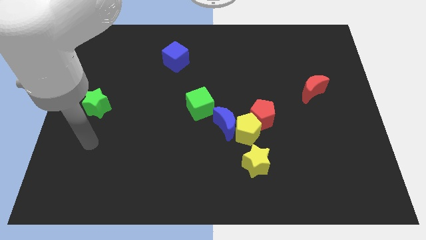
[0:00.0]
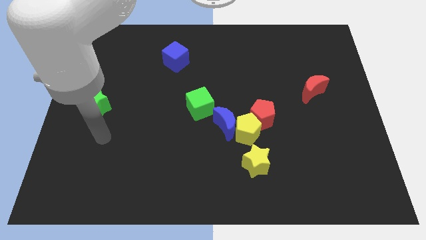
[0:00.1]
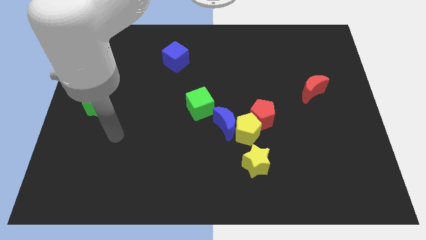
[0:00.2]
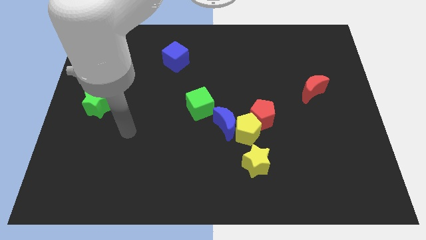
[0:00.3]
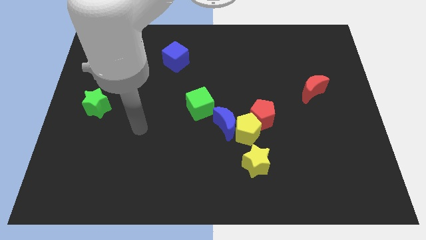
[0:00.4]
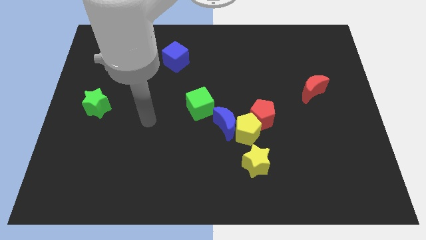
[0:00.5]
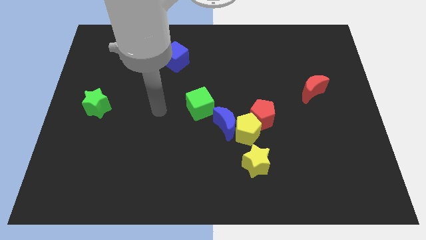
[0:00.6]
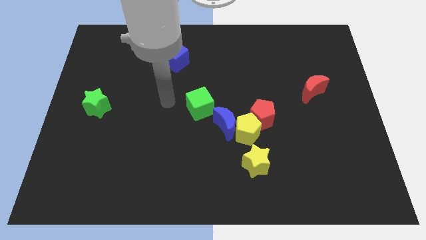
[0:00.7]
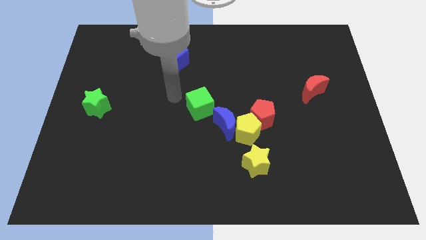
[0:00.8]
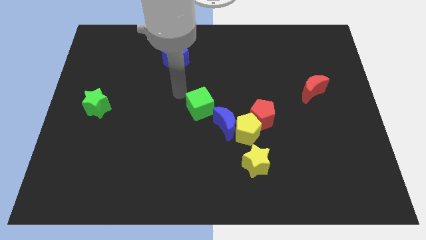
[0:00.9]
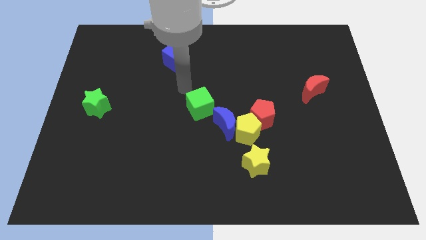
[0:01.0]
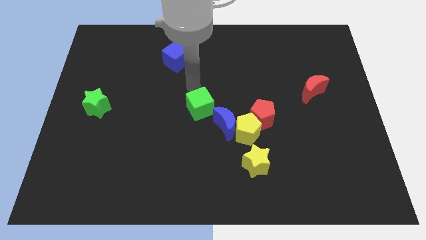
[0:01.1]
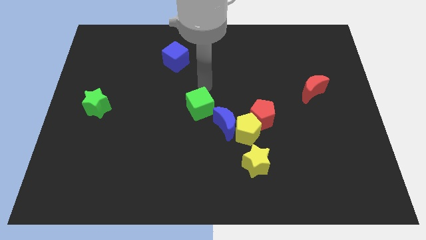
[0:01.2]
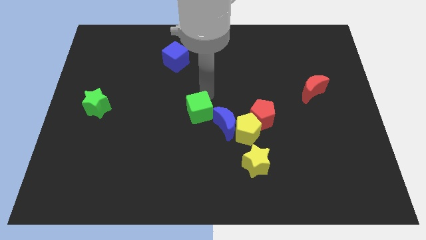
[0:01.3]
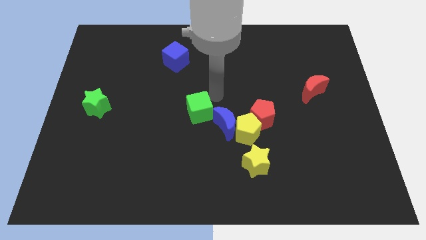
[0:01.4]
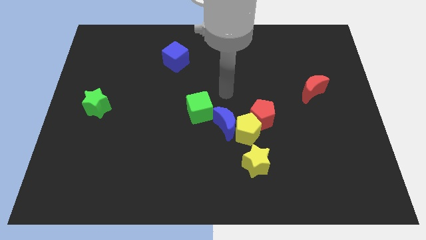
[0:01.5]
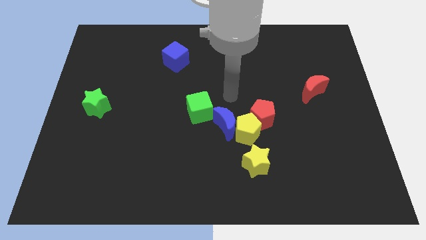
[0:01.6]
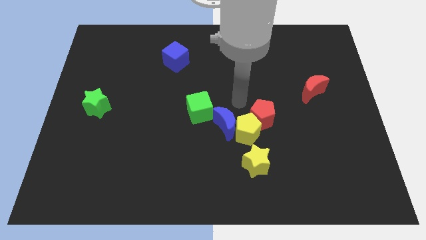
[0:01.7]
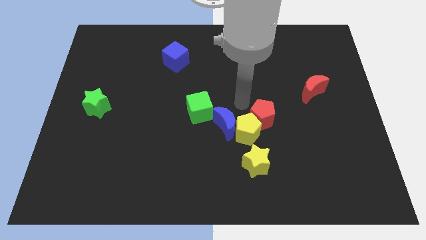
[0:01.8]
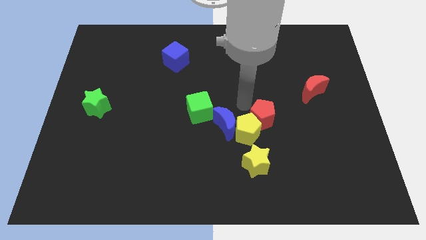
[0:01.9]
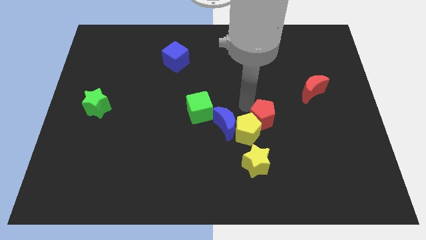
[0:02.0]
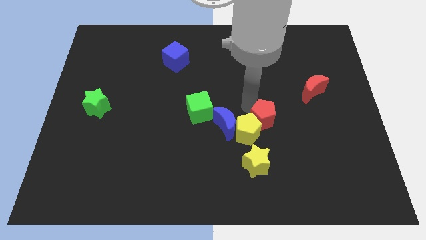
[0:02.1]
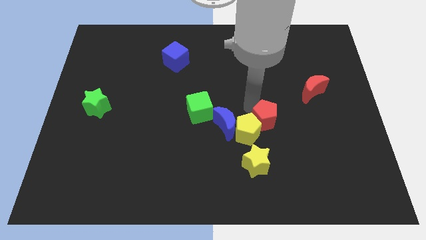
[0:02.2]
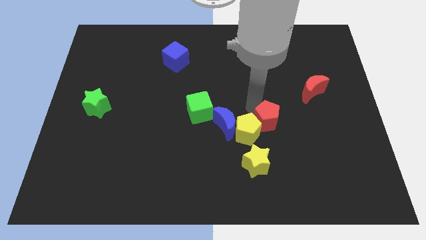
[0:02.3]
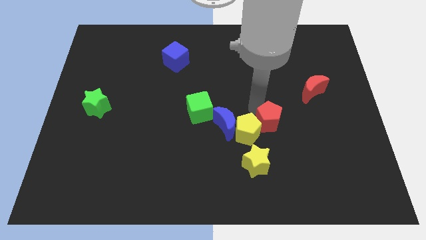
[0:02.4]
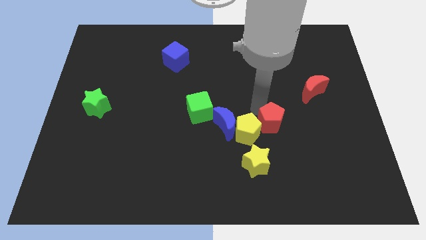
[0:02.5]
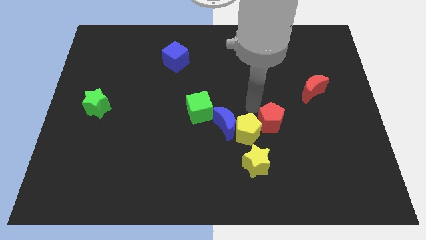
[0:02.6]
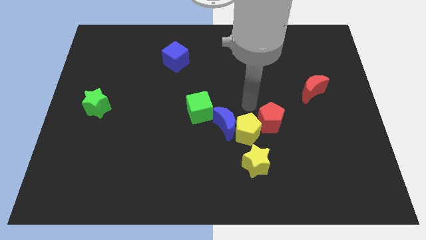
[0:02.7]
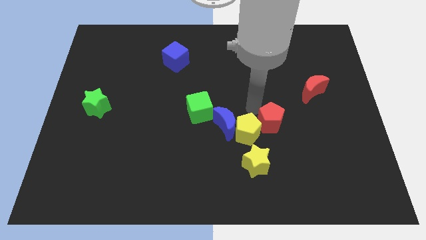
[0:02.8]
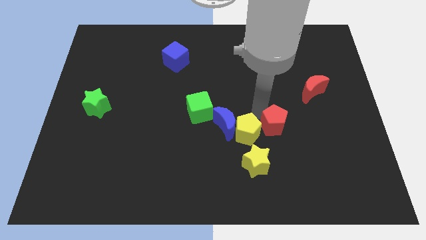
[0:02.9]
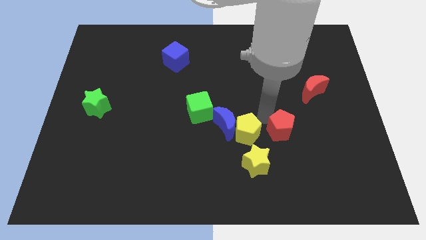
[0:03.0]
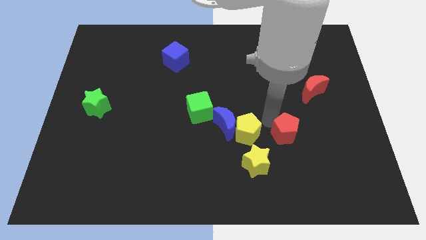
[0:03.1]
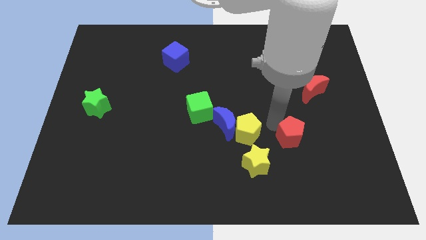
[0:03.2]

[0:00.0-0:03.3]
slightly slide the red pentagon down and to the right

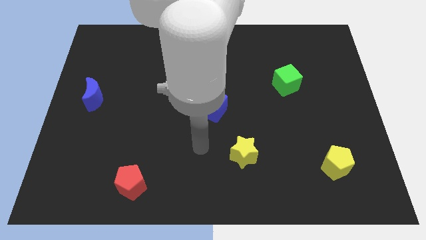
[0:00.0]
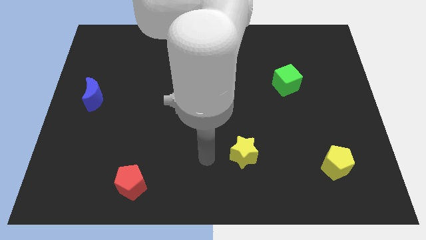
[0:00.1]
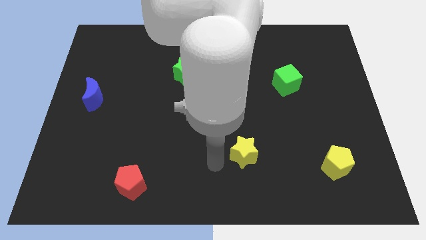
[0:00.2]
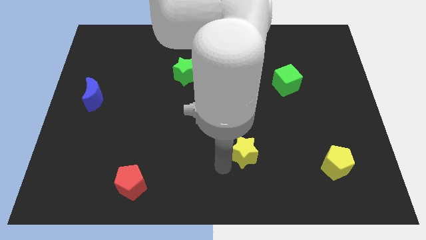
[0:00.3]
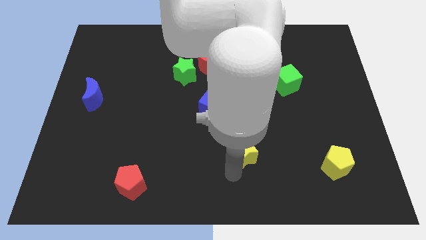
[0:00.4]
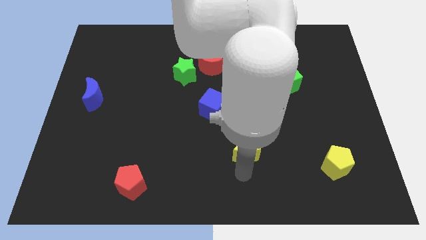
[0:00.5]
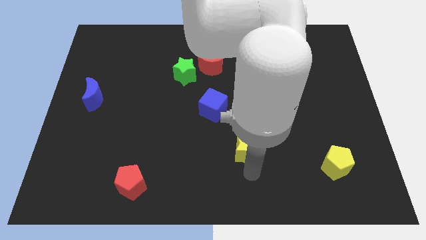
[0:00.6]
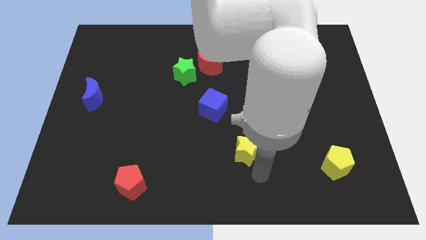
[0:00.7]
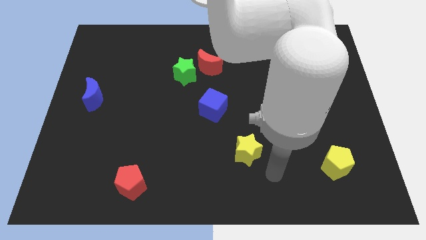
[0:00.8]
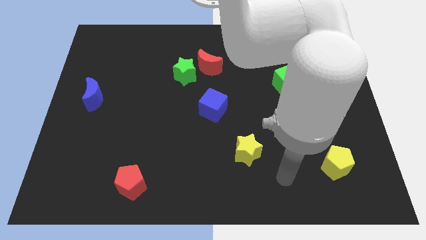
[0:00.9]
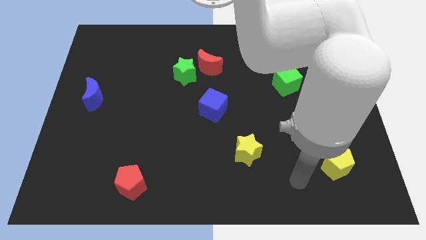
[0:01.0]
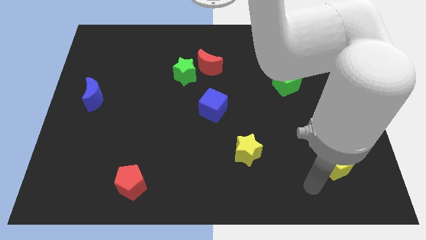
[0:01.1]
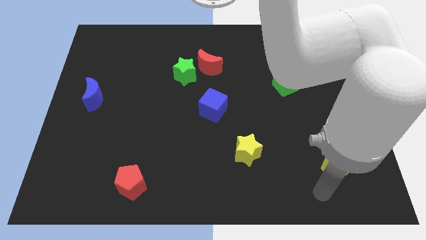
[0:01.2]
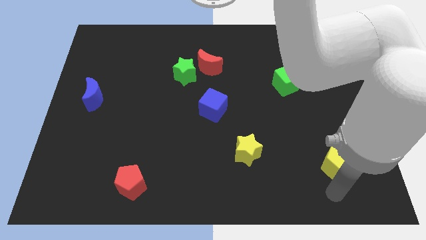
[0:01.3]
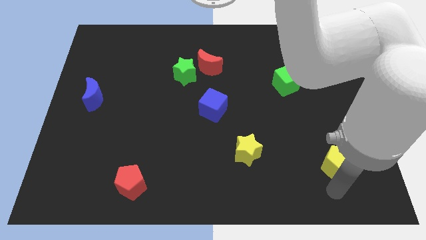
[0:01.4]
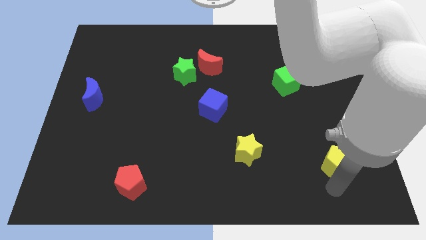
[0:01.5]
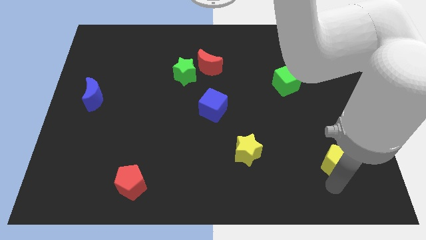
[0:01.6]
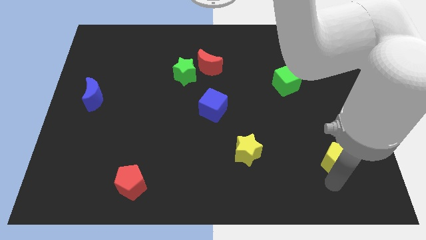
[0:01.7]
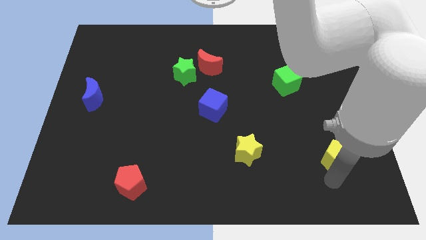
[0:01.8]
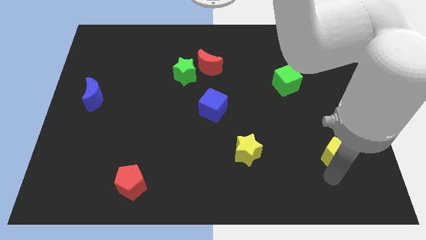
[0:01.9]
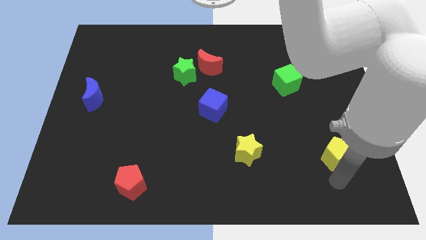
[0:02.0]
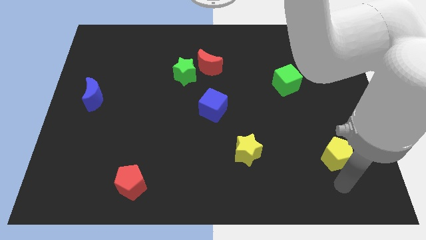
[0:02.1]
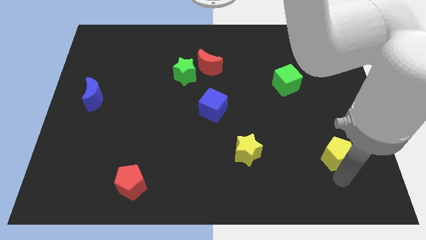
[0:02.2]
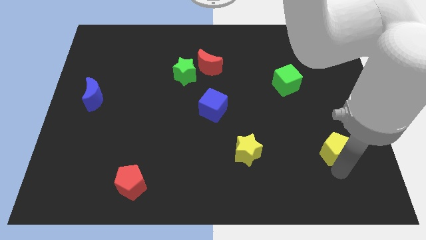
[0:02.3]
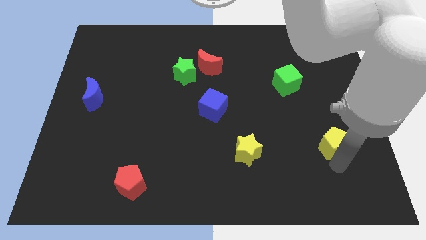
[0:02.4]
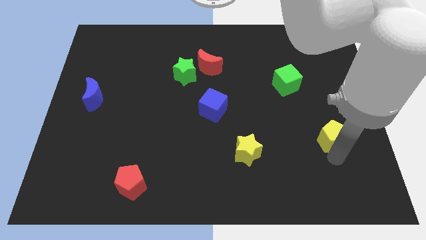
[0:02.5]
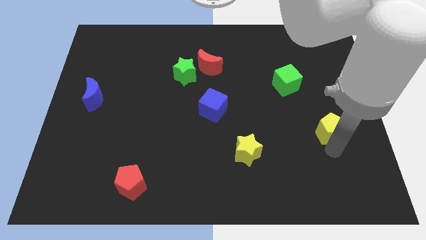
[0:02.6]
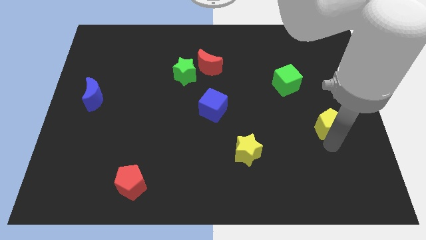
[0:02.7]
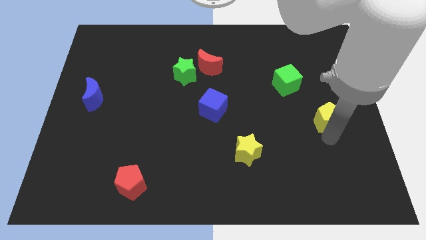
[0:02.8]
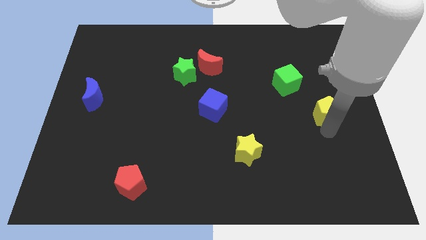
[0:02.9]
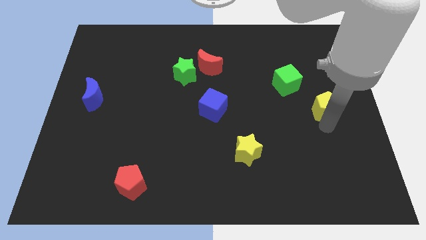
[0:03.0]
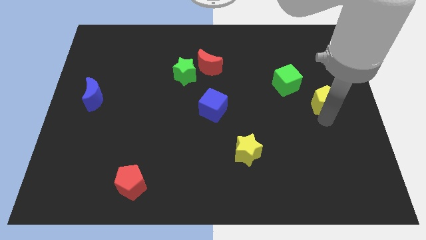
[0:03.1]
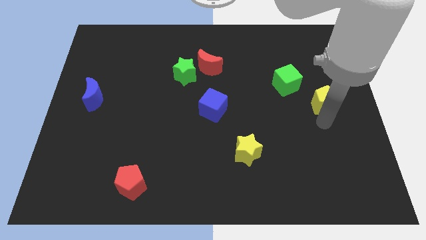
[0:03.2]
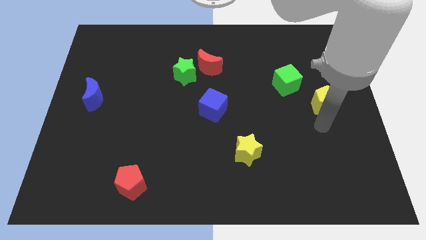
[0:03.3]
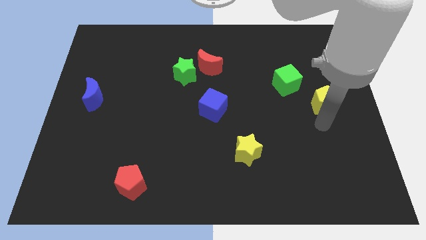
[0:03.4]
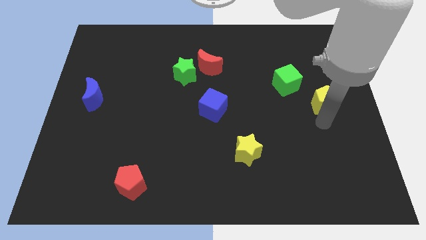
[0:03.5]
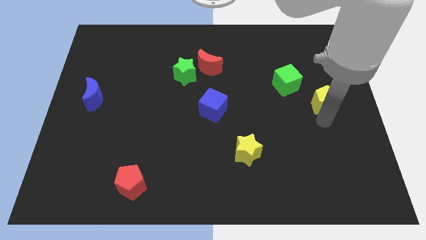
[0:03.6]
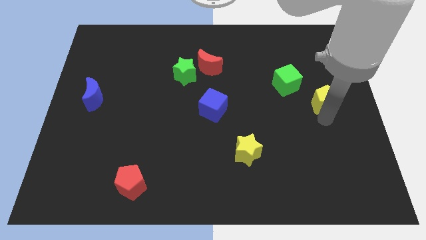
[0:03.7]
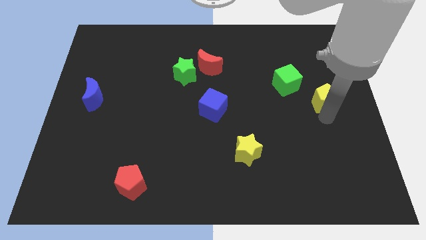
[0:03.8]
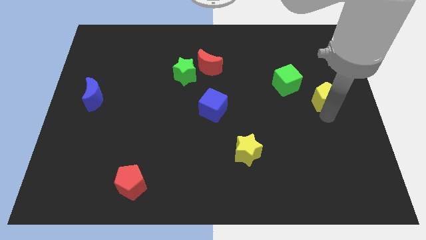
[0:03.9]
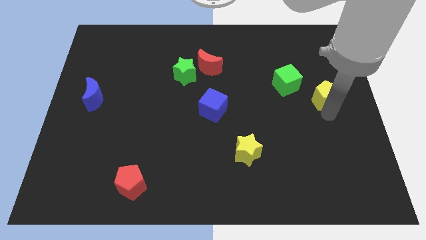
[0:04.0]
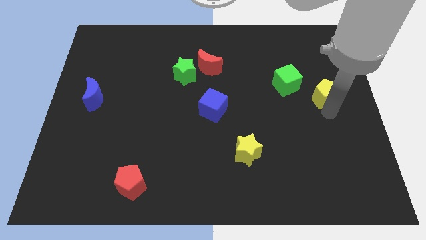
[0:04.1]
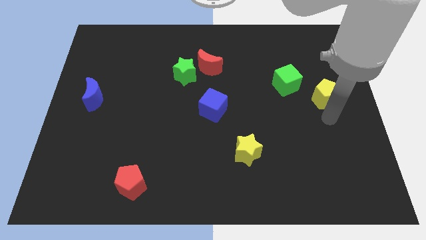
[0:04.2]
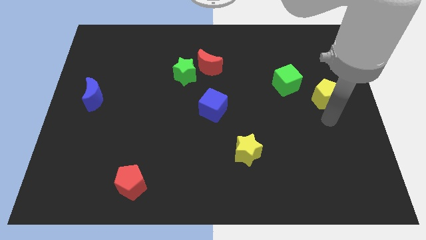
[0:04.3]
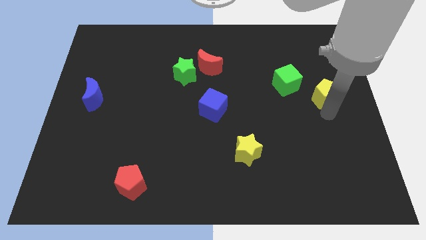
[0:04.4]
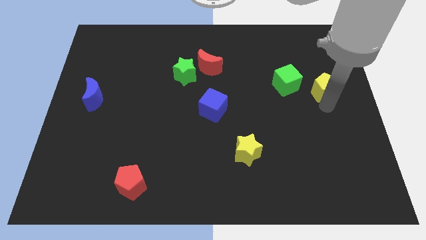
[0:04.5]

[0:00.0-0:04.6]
push the yellow pentagon upwards
